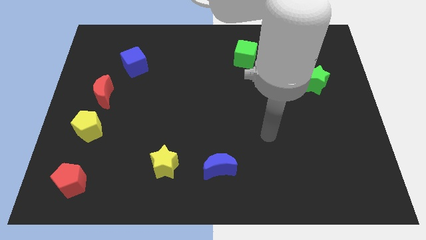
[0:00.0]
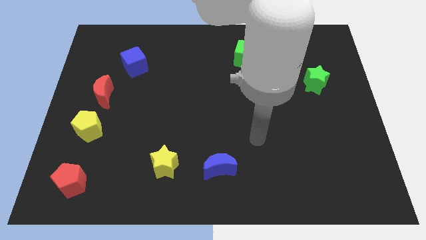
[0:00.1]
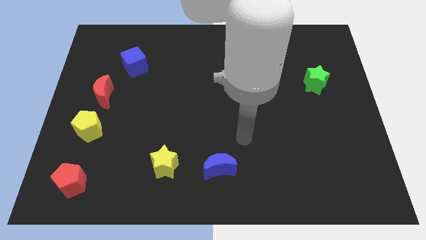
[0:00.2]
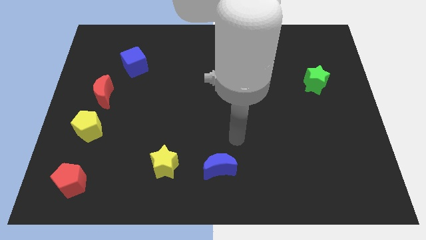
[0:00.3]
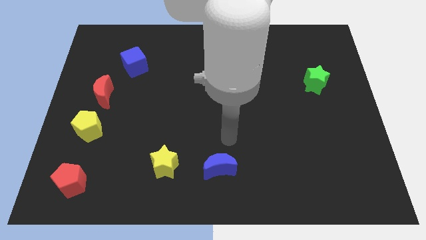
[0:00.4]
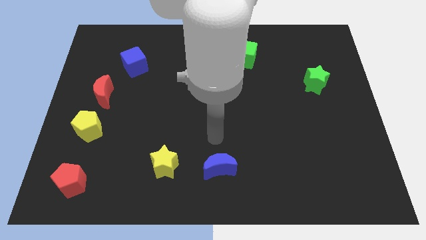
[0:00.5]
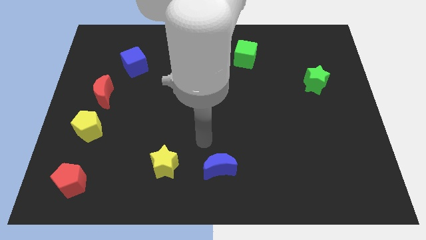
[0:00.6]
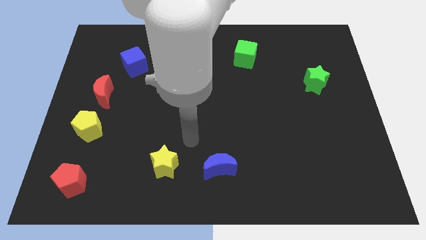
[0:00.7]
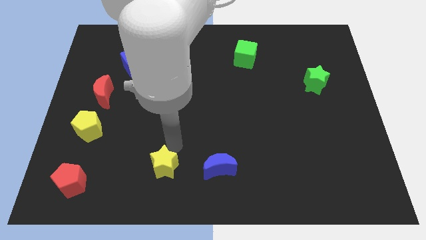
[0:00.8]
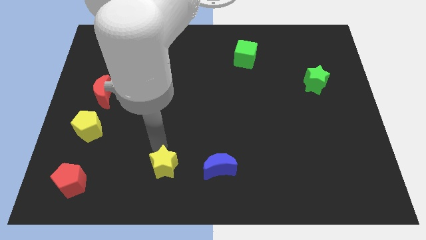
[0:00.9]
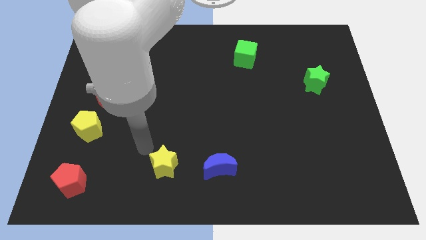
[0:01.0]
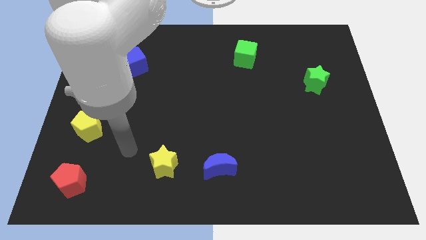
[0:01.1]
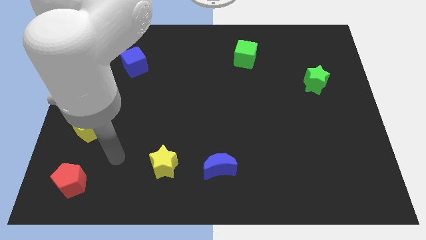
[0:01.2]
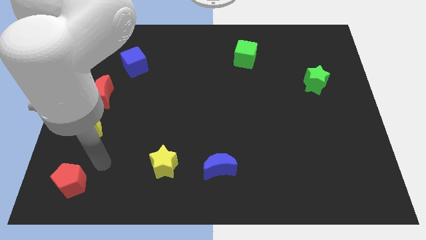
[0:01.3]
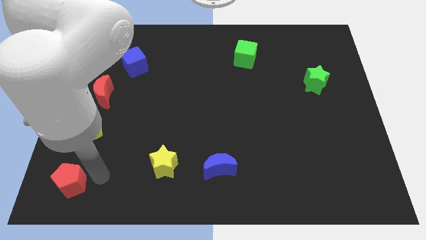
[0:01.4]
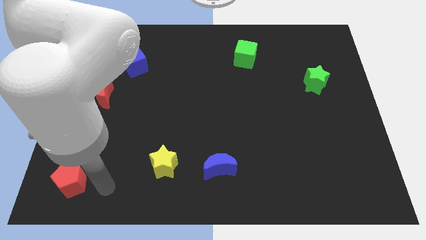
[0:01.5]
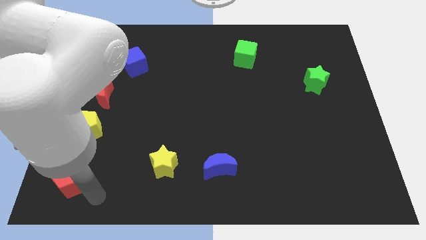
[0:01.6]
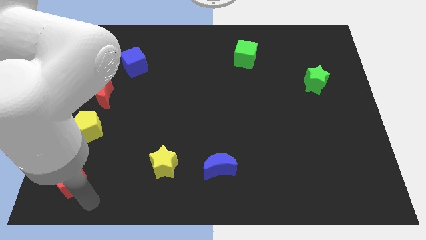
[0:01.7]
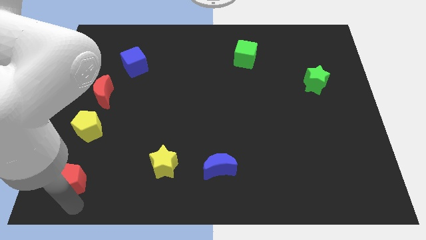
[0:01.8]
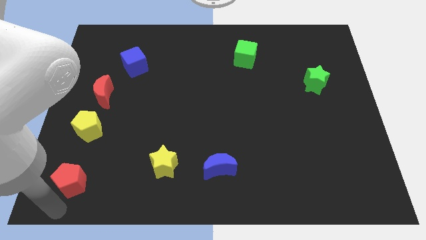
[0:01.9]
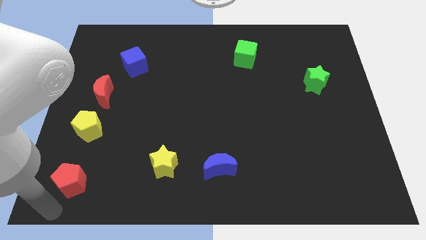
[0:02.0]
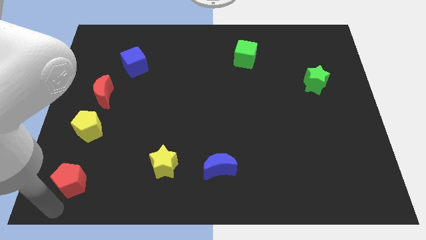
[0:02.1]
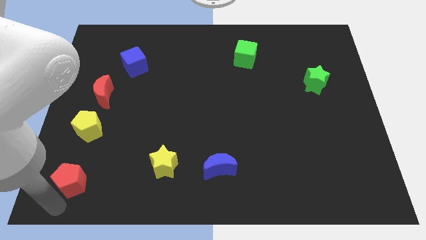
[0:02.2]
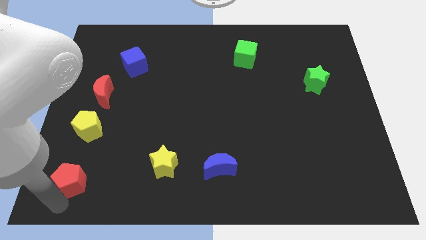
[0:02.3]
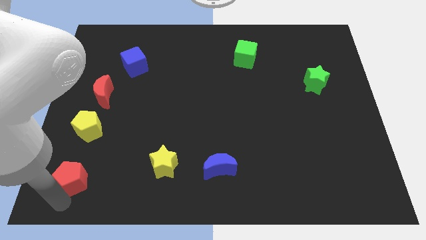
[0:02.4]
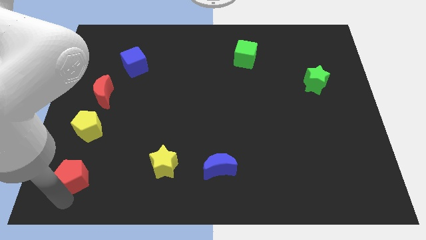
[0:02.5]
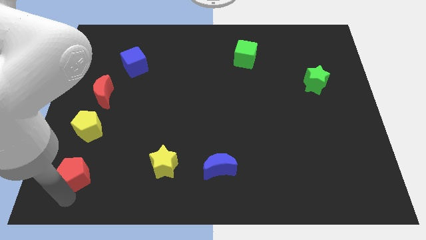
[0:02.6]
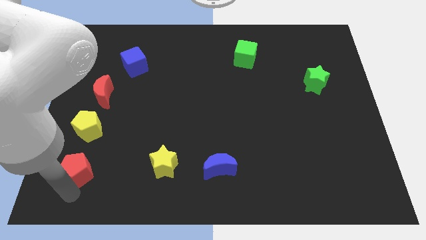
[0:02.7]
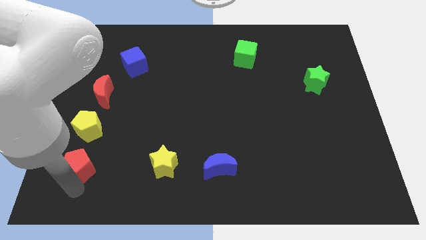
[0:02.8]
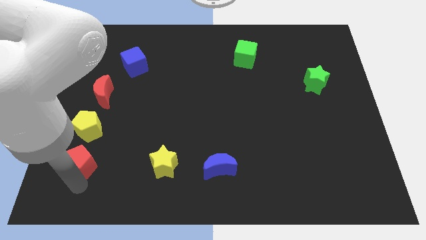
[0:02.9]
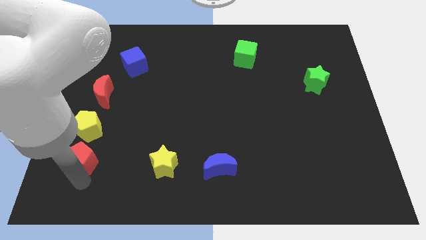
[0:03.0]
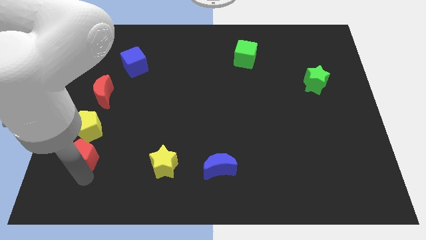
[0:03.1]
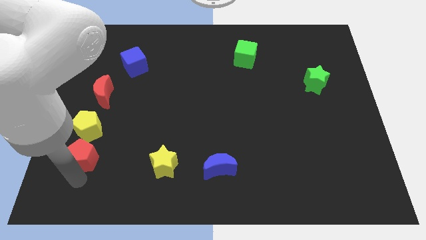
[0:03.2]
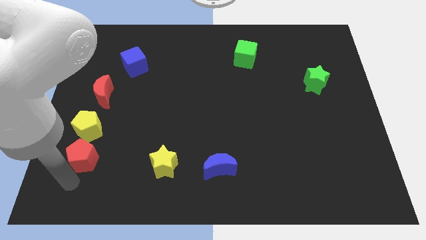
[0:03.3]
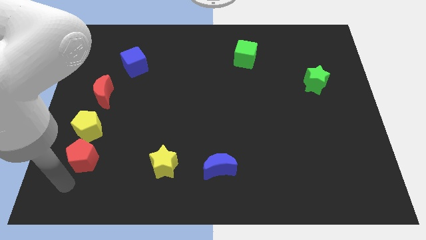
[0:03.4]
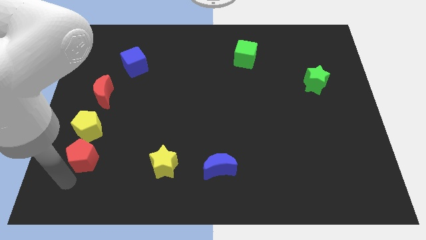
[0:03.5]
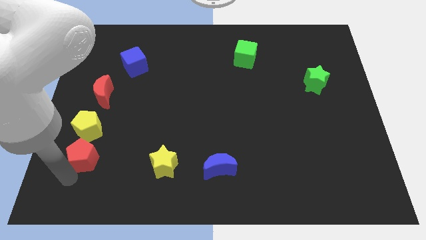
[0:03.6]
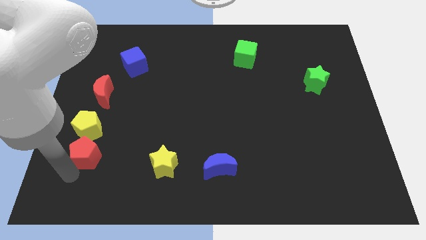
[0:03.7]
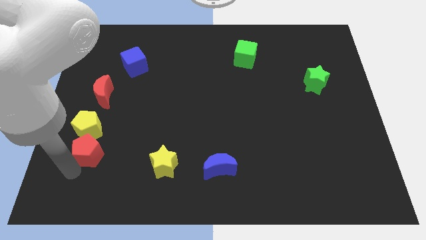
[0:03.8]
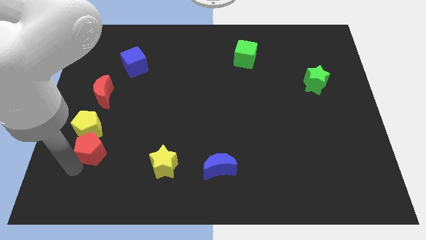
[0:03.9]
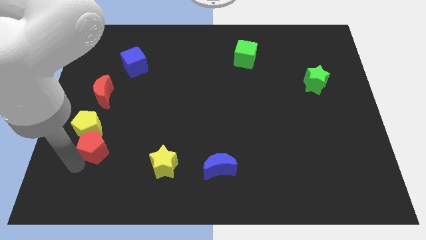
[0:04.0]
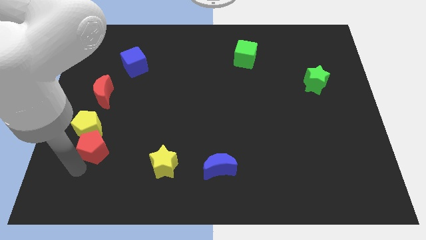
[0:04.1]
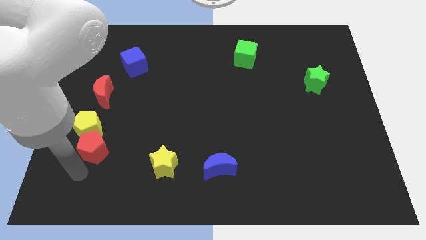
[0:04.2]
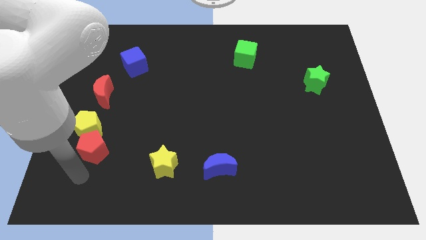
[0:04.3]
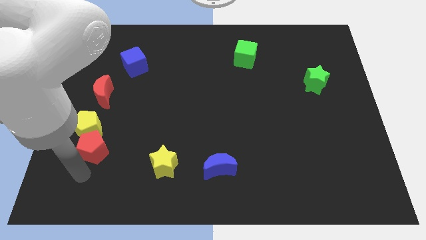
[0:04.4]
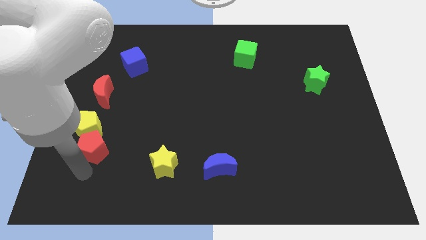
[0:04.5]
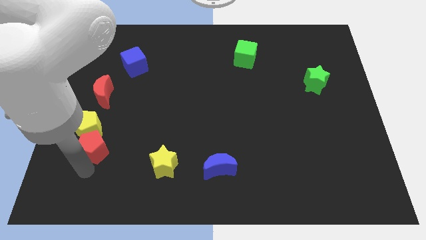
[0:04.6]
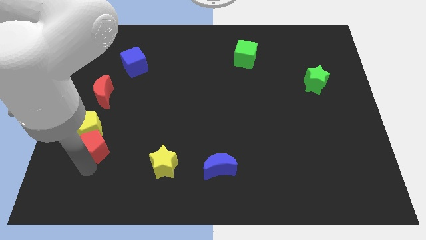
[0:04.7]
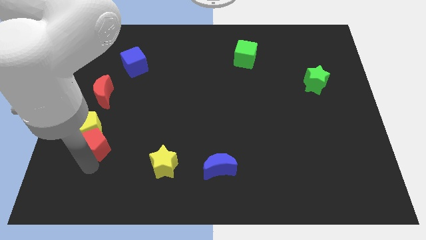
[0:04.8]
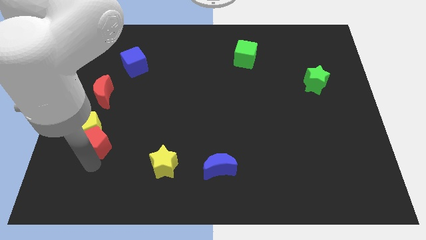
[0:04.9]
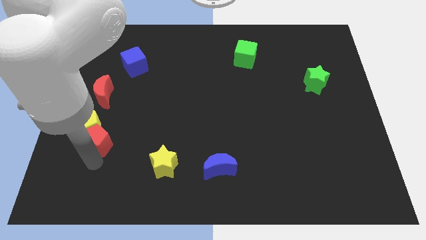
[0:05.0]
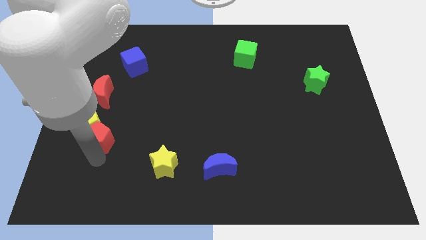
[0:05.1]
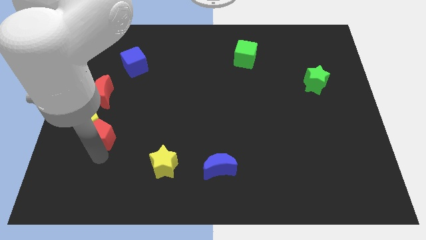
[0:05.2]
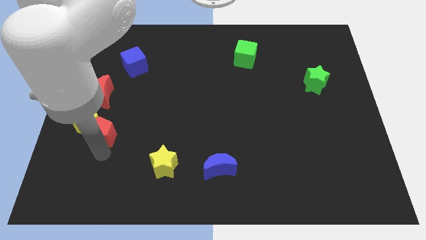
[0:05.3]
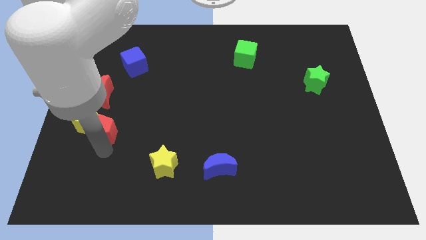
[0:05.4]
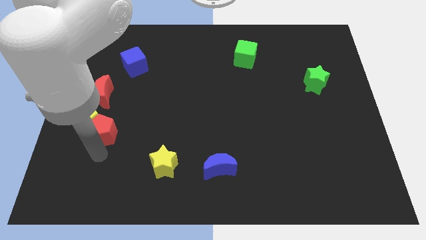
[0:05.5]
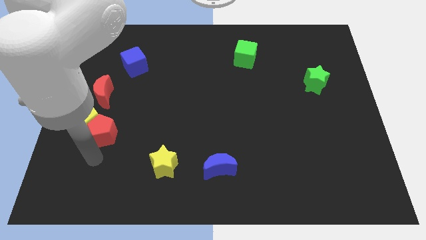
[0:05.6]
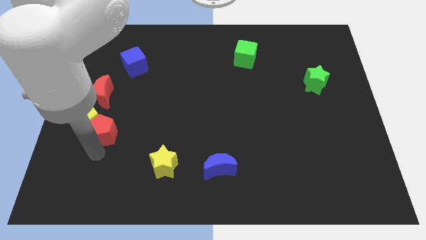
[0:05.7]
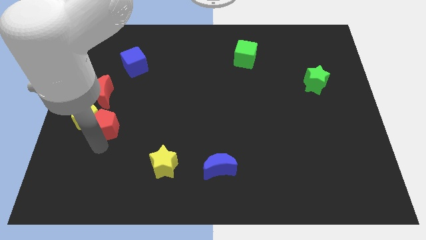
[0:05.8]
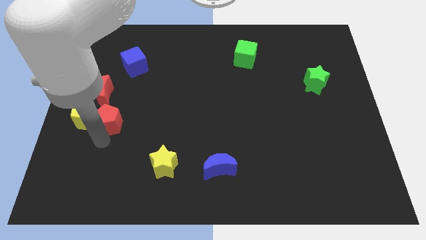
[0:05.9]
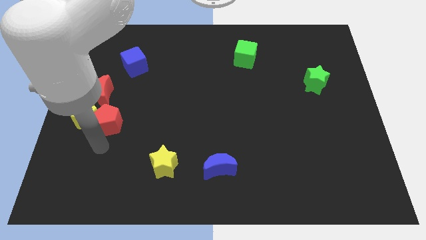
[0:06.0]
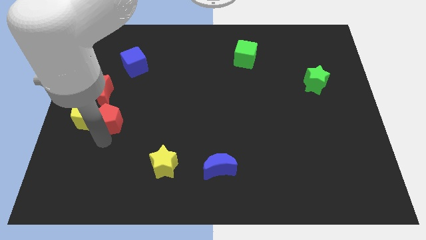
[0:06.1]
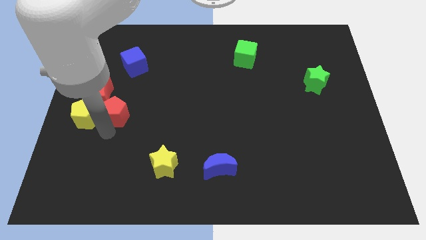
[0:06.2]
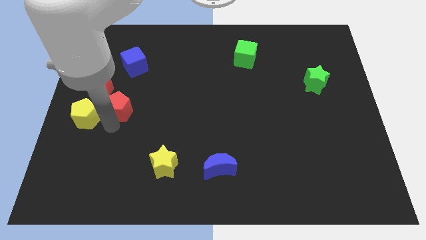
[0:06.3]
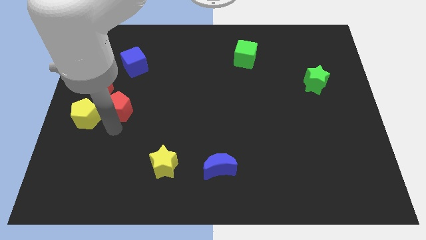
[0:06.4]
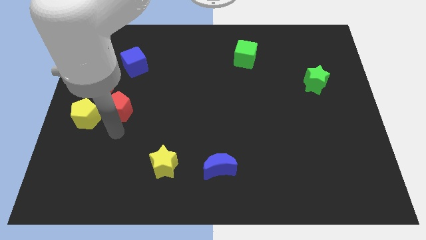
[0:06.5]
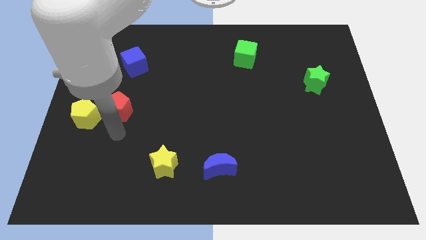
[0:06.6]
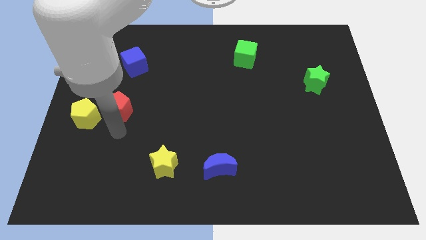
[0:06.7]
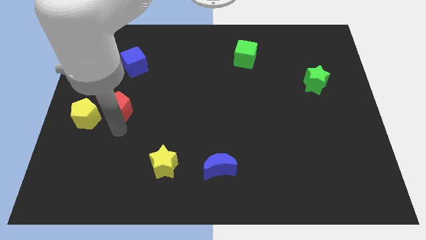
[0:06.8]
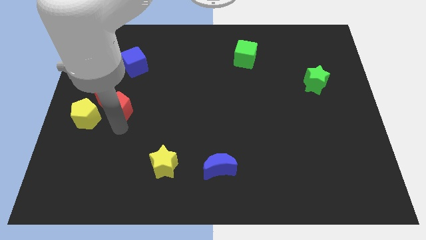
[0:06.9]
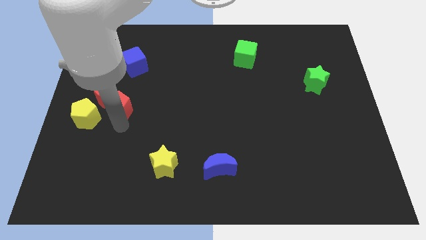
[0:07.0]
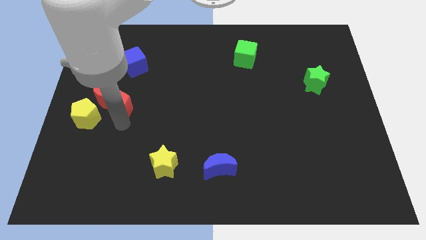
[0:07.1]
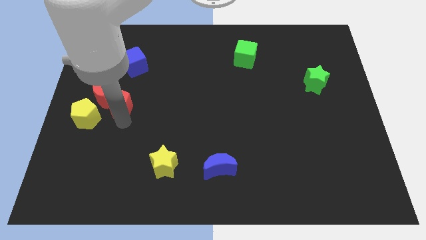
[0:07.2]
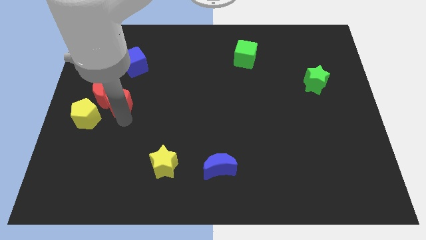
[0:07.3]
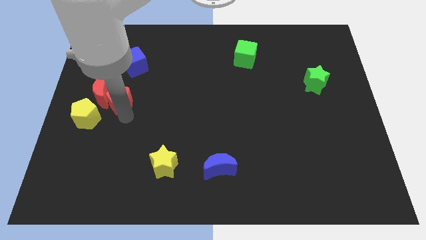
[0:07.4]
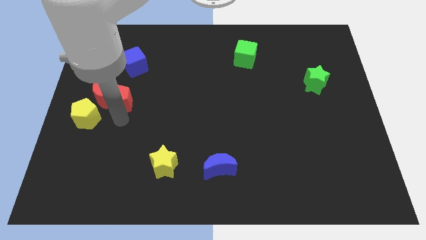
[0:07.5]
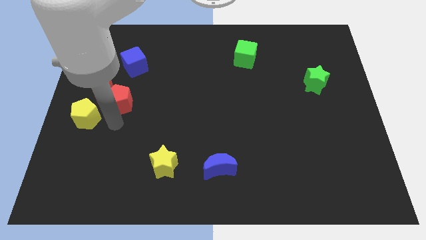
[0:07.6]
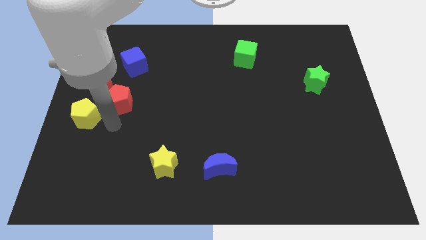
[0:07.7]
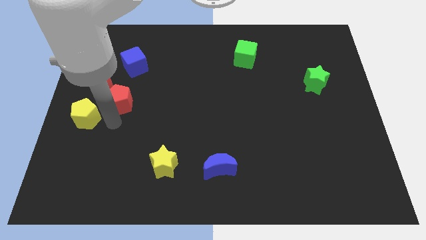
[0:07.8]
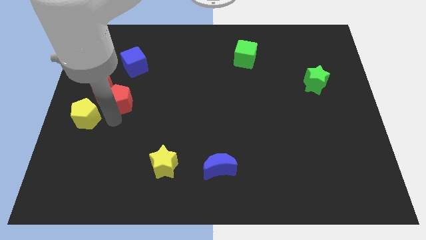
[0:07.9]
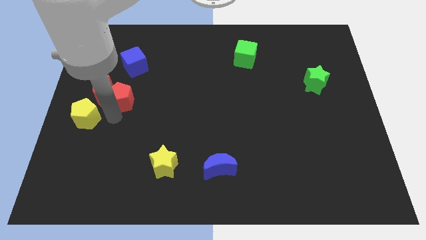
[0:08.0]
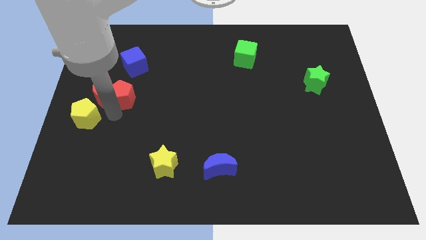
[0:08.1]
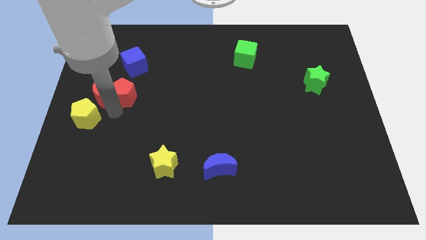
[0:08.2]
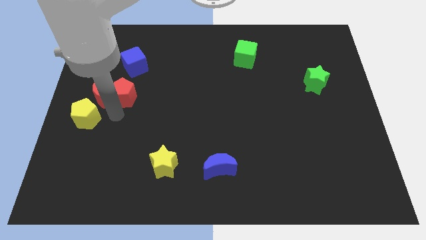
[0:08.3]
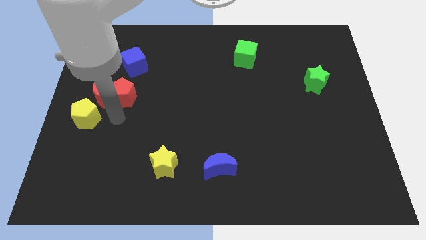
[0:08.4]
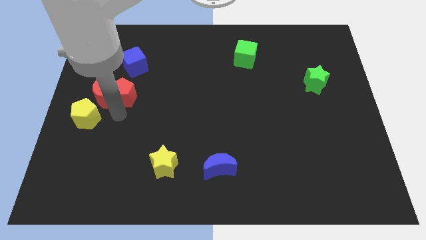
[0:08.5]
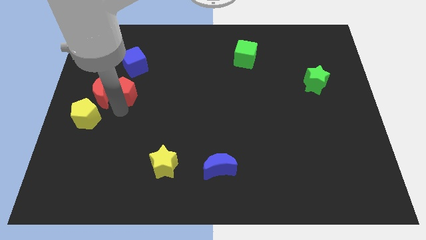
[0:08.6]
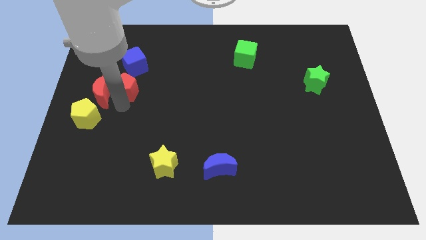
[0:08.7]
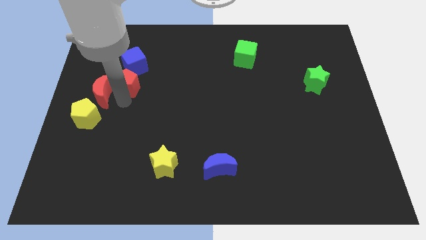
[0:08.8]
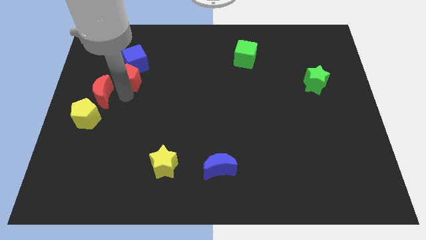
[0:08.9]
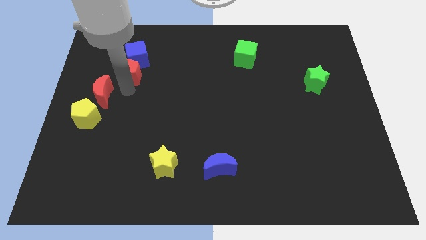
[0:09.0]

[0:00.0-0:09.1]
put the red pentagon close to the blue cube
